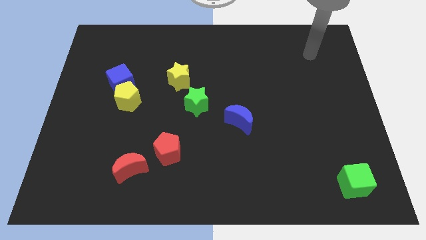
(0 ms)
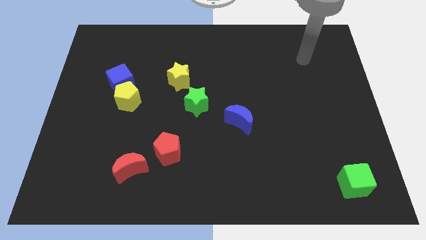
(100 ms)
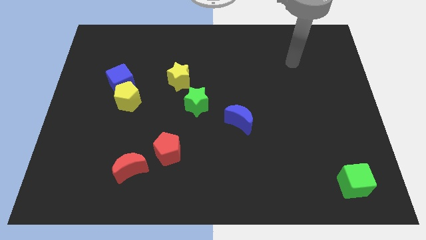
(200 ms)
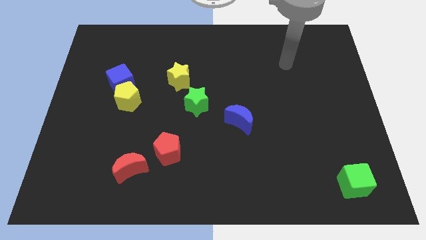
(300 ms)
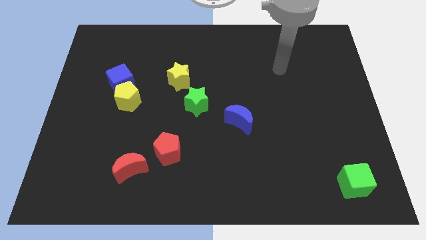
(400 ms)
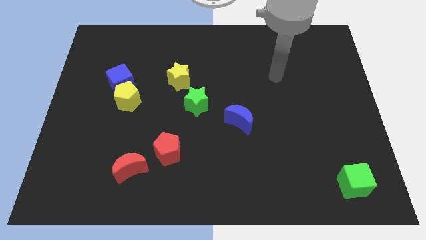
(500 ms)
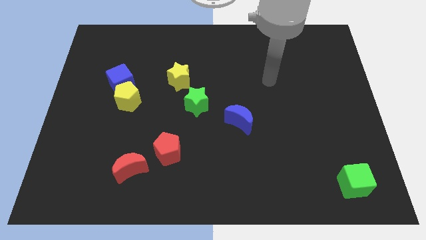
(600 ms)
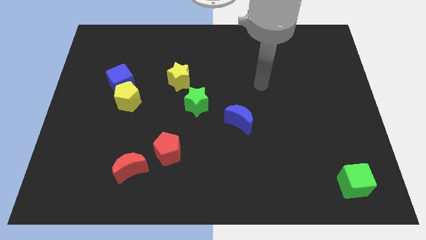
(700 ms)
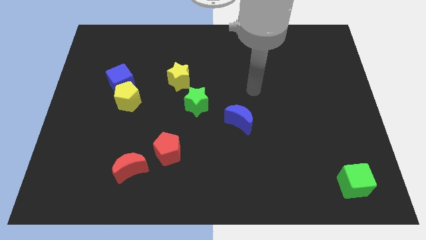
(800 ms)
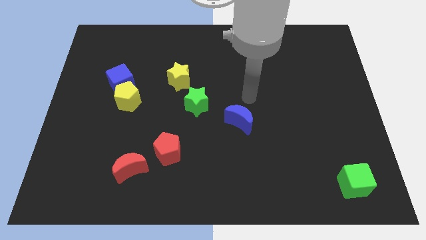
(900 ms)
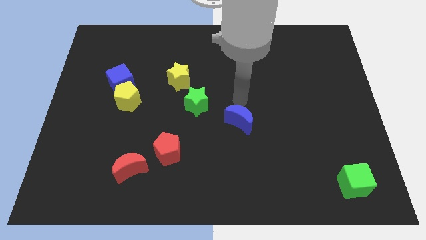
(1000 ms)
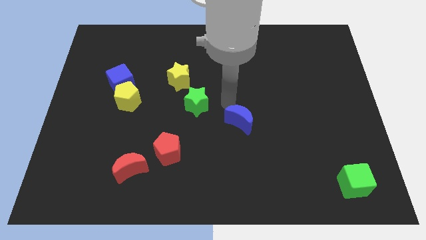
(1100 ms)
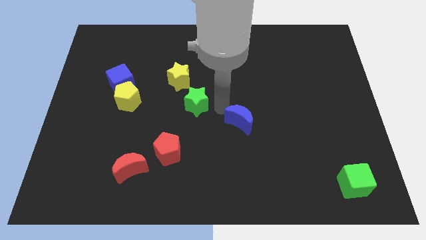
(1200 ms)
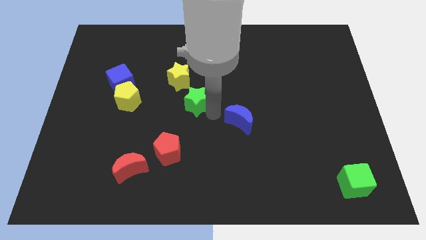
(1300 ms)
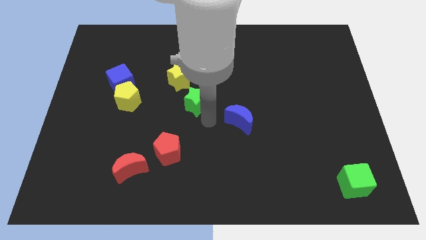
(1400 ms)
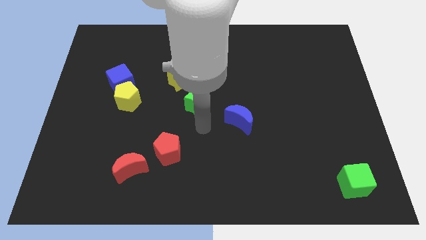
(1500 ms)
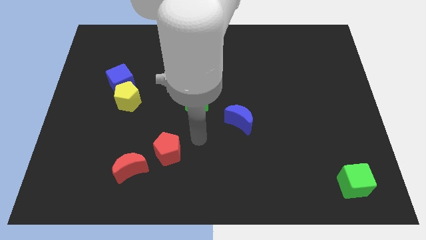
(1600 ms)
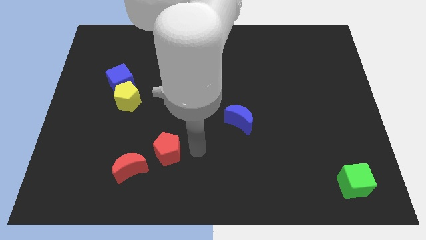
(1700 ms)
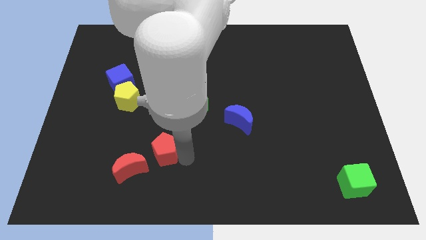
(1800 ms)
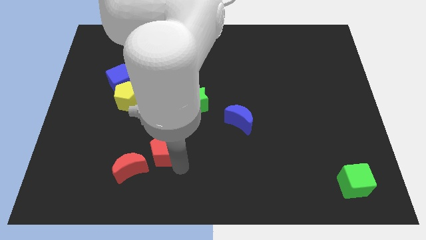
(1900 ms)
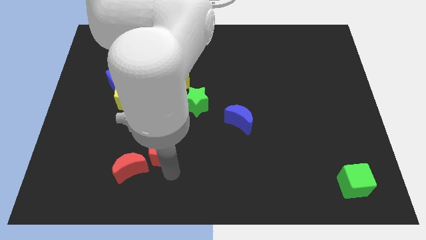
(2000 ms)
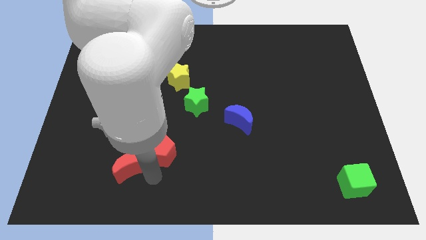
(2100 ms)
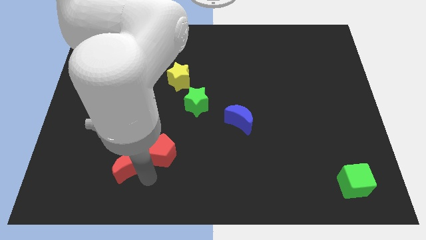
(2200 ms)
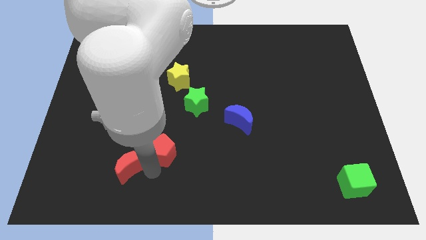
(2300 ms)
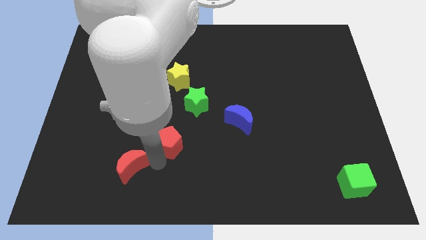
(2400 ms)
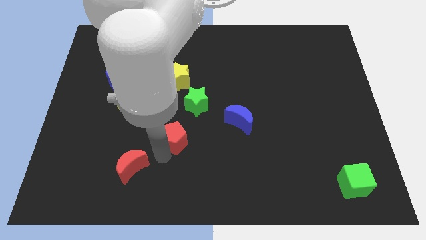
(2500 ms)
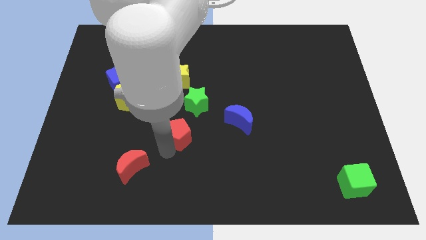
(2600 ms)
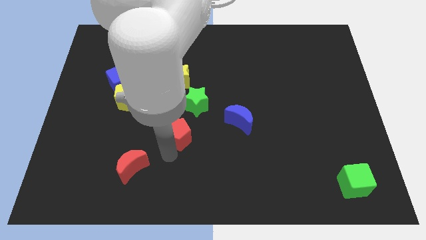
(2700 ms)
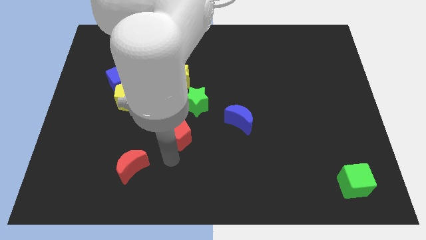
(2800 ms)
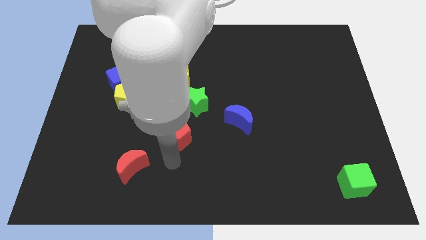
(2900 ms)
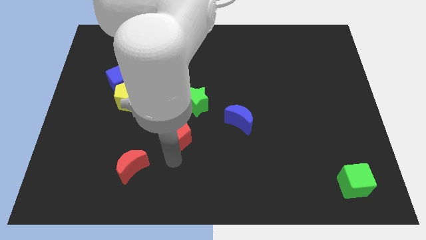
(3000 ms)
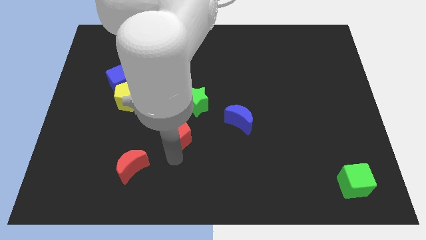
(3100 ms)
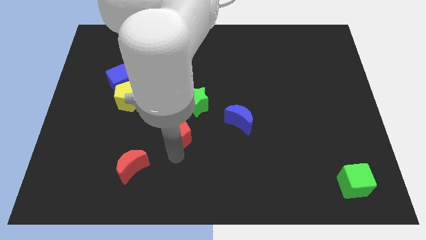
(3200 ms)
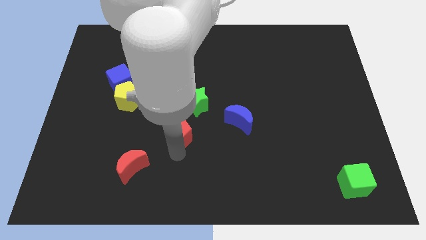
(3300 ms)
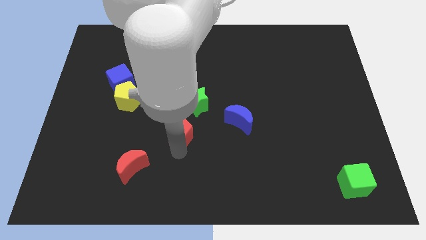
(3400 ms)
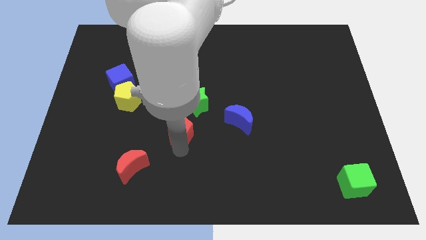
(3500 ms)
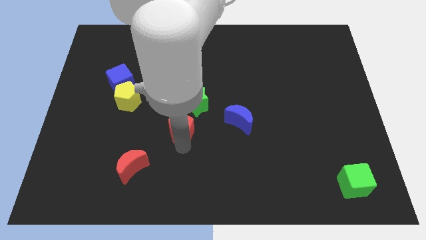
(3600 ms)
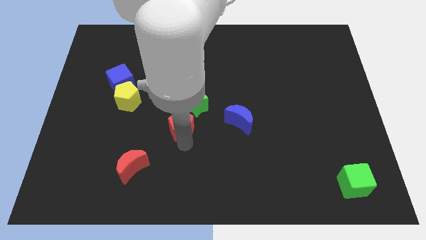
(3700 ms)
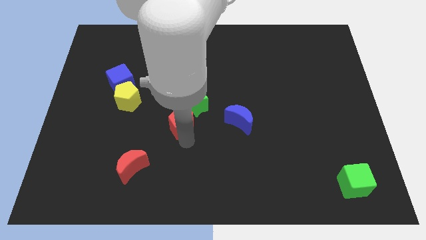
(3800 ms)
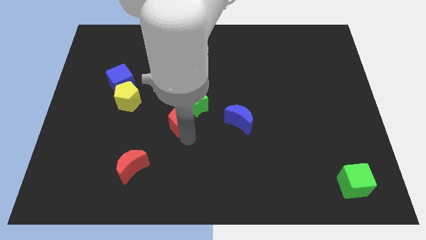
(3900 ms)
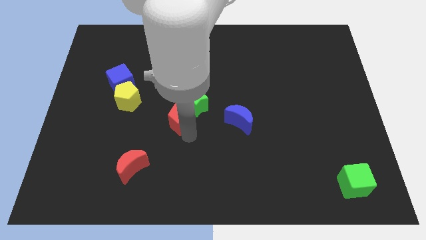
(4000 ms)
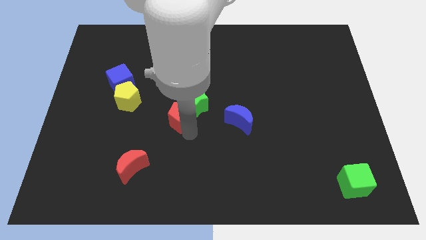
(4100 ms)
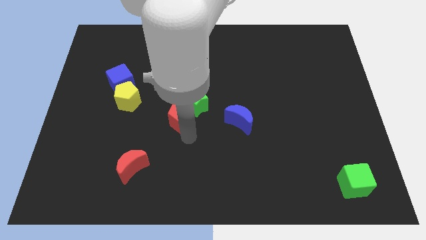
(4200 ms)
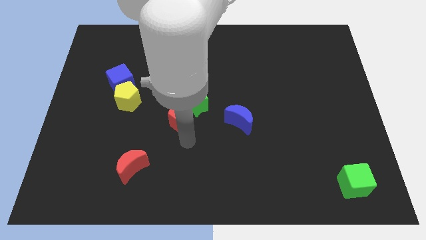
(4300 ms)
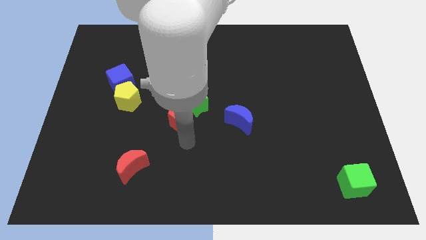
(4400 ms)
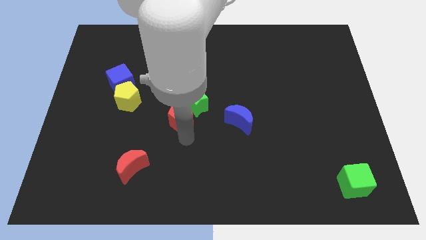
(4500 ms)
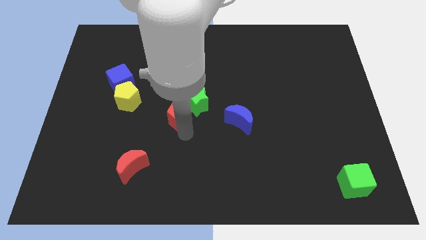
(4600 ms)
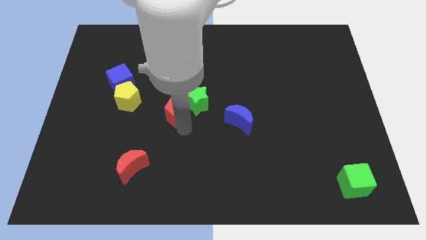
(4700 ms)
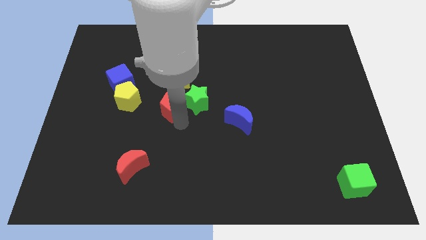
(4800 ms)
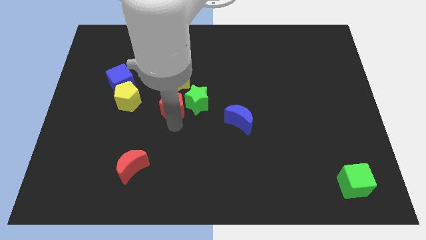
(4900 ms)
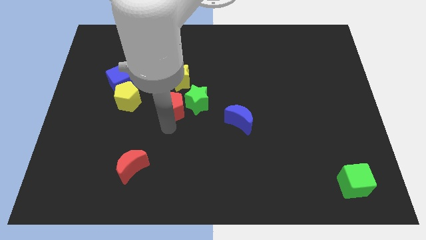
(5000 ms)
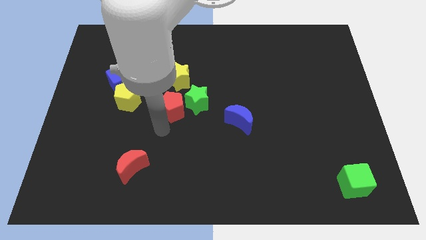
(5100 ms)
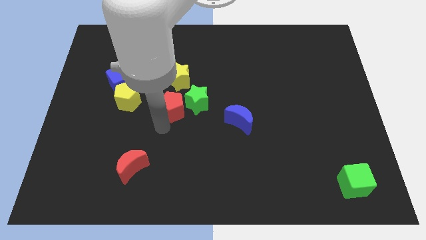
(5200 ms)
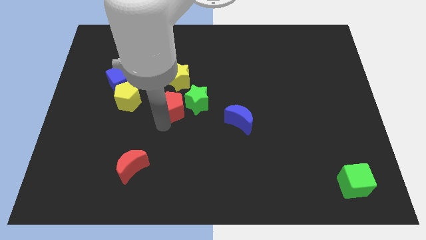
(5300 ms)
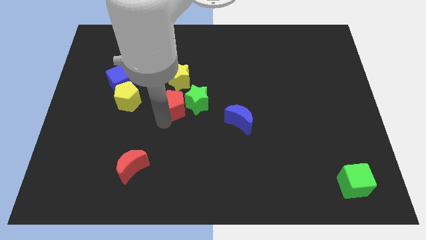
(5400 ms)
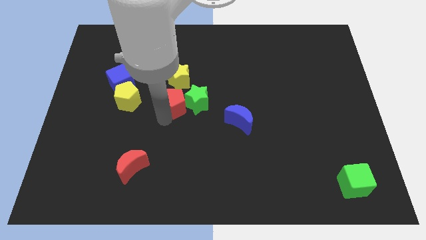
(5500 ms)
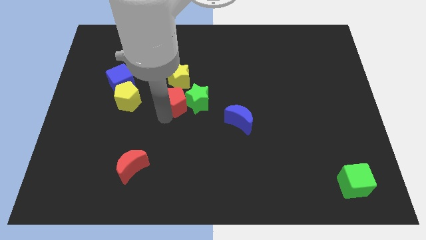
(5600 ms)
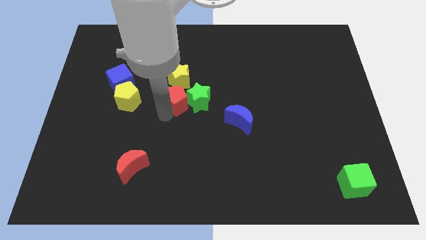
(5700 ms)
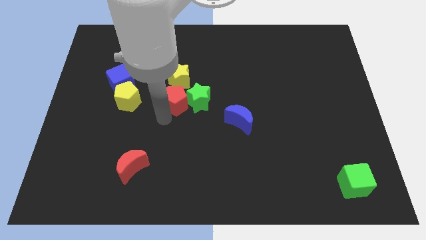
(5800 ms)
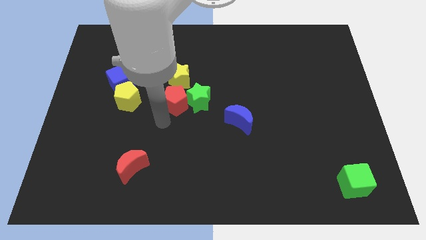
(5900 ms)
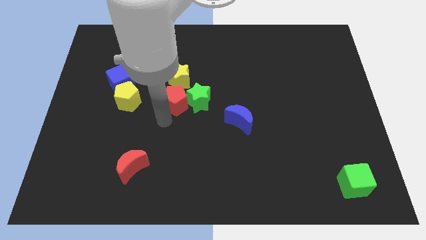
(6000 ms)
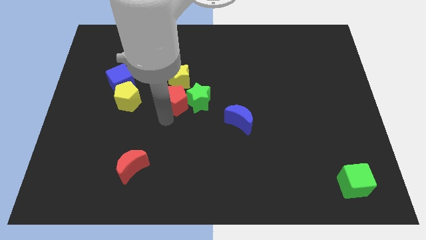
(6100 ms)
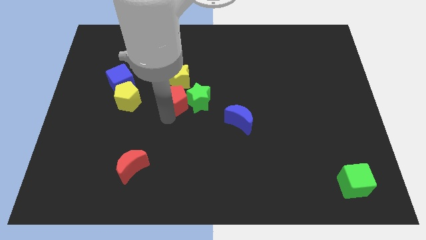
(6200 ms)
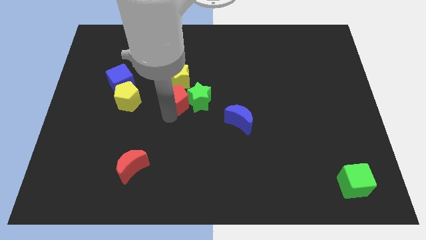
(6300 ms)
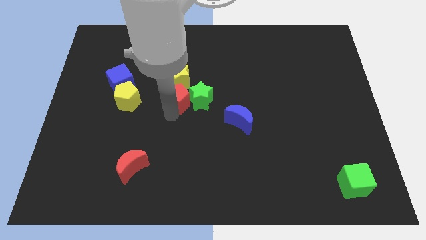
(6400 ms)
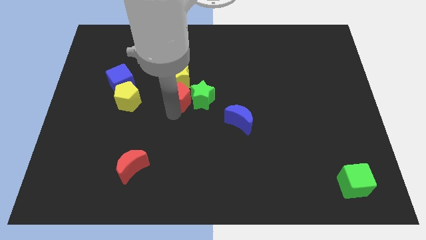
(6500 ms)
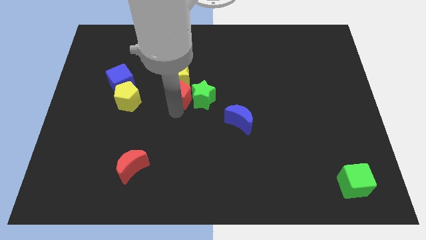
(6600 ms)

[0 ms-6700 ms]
put the red pentagon close to the yellow star

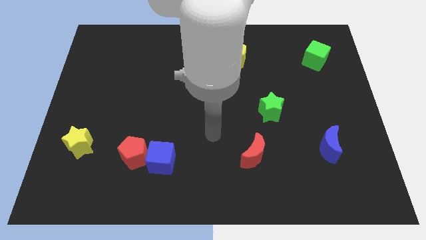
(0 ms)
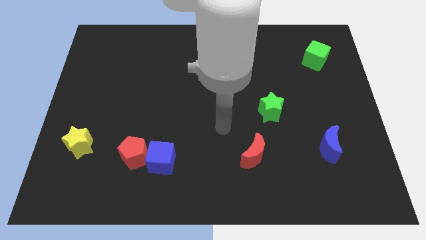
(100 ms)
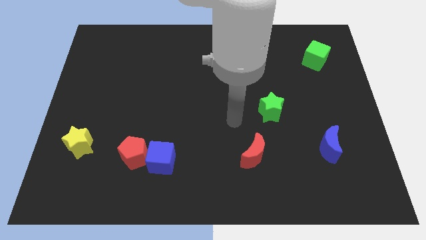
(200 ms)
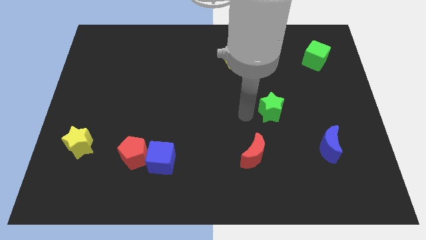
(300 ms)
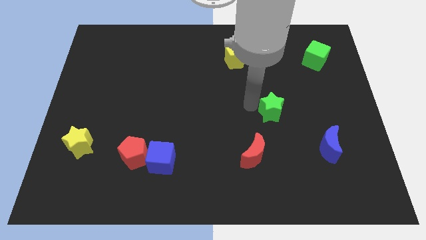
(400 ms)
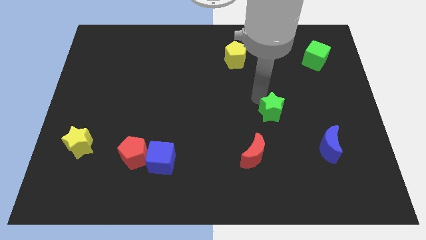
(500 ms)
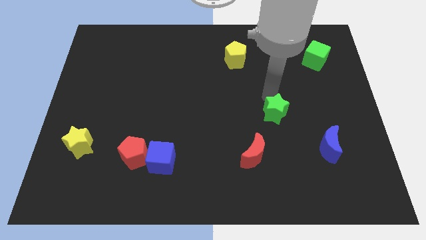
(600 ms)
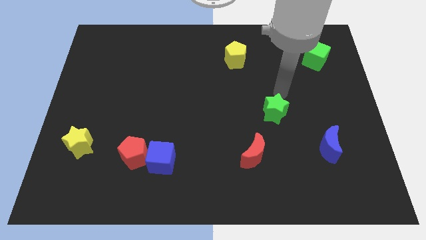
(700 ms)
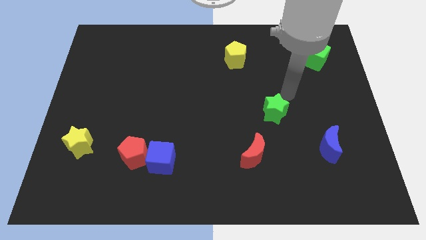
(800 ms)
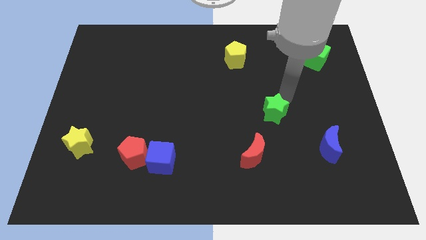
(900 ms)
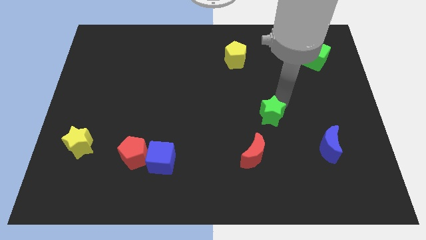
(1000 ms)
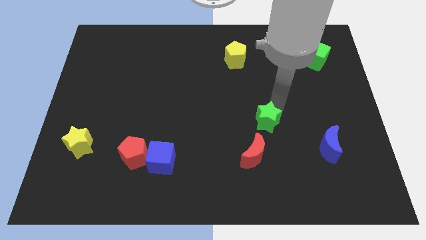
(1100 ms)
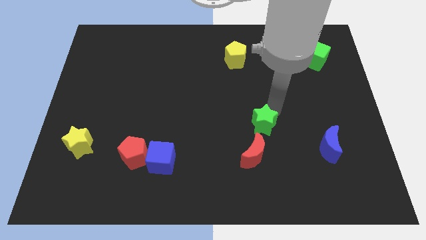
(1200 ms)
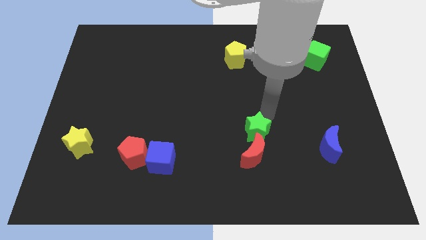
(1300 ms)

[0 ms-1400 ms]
slide the green star to the red moon
